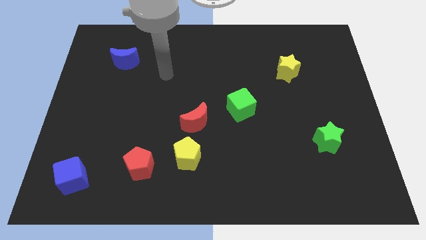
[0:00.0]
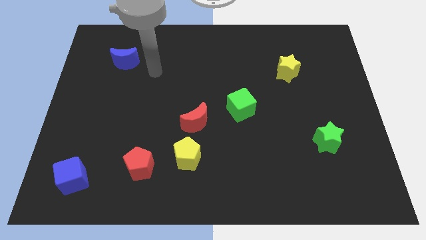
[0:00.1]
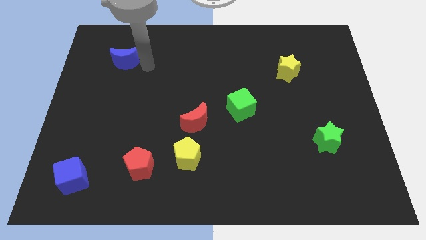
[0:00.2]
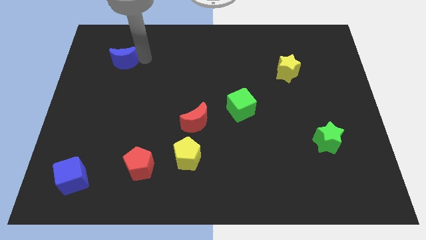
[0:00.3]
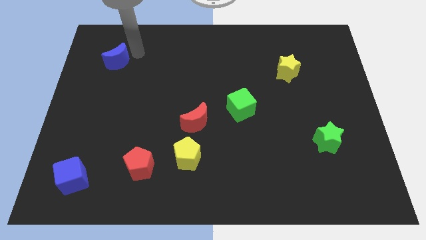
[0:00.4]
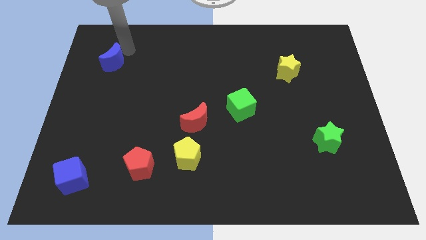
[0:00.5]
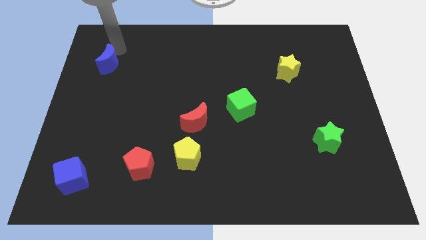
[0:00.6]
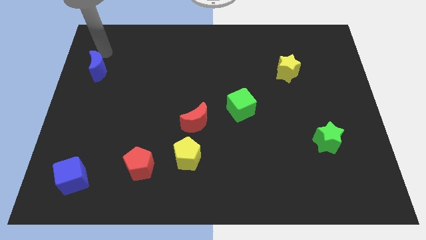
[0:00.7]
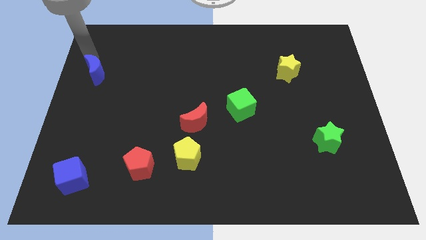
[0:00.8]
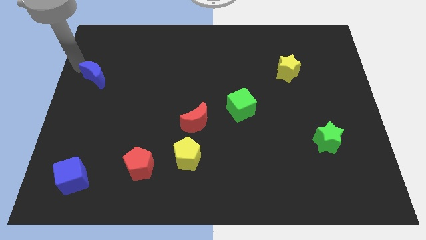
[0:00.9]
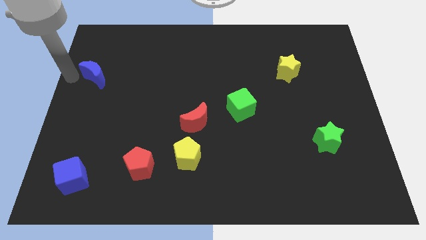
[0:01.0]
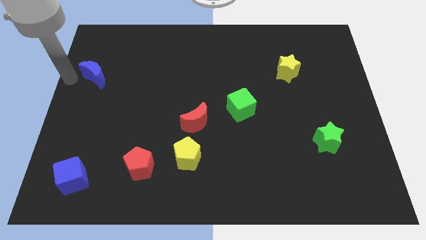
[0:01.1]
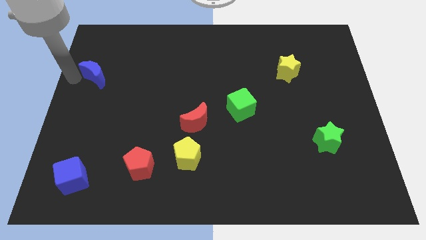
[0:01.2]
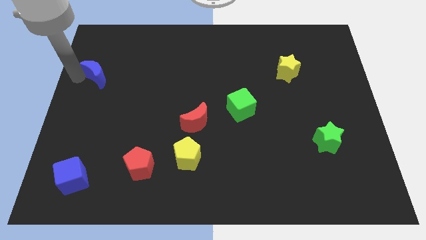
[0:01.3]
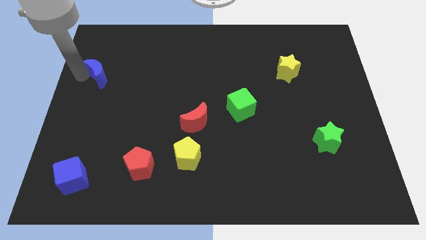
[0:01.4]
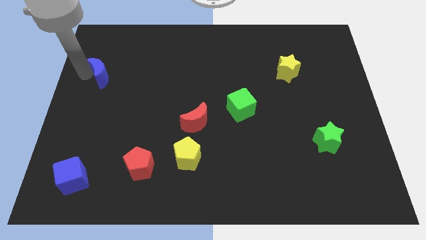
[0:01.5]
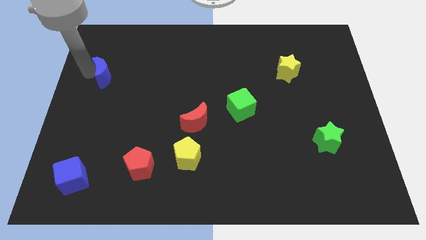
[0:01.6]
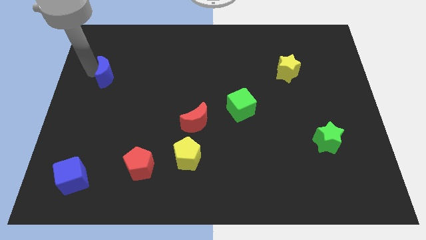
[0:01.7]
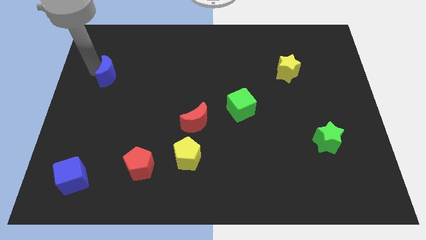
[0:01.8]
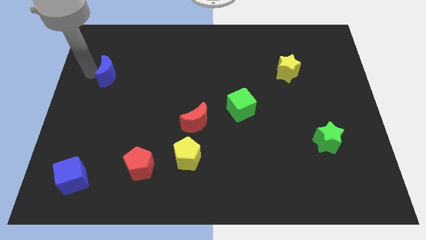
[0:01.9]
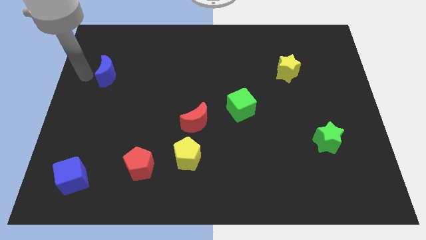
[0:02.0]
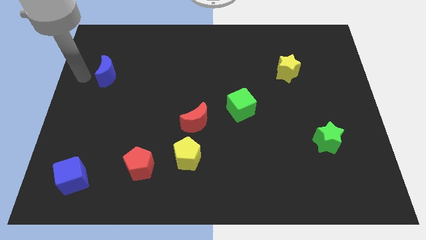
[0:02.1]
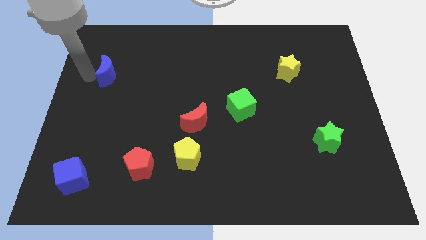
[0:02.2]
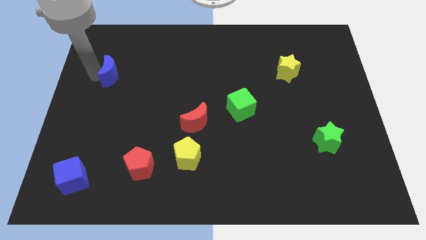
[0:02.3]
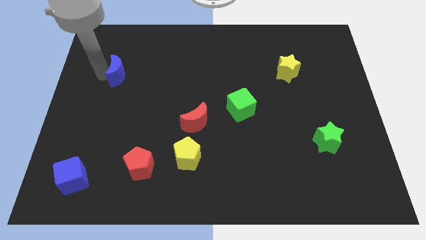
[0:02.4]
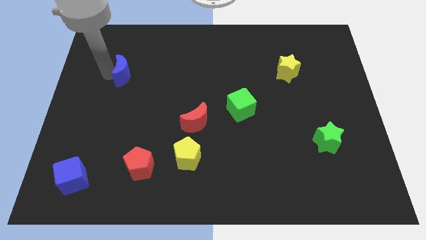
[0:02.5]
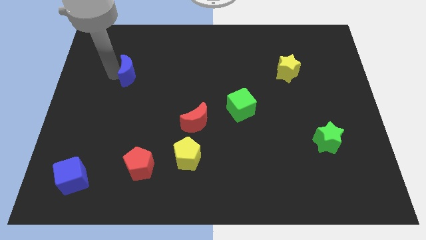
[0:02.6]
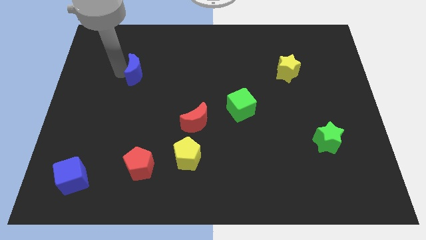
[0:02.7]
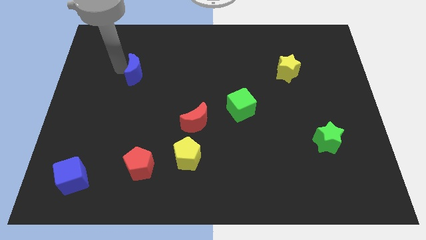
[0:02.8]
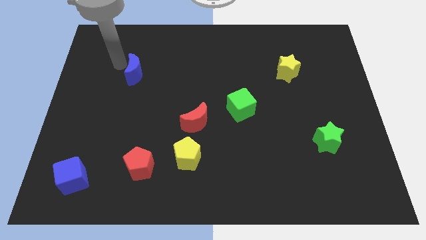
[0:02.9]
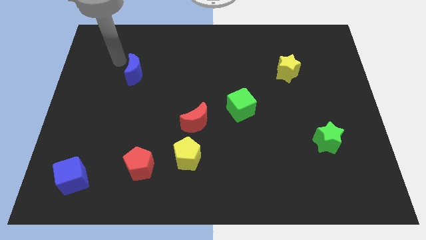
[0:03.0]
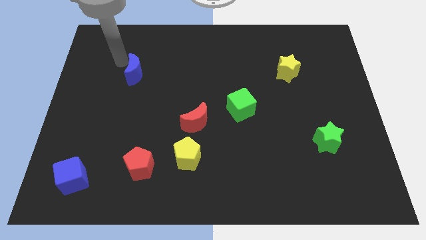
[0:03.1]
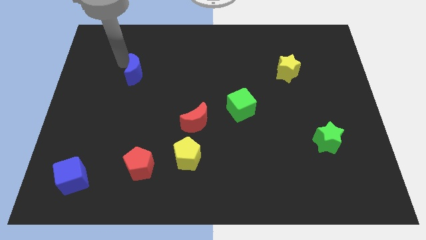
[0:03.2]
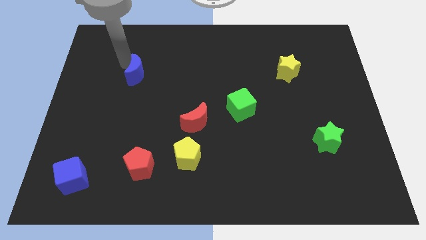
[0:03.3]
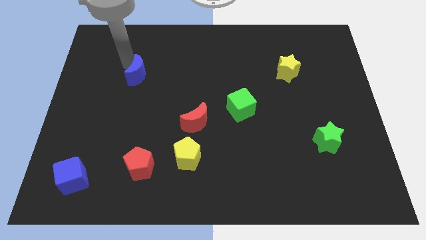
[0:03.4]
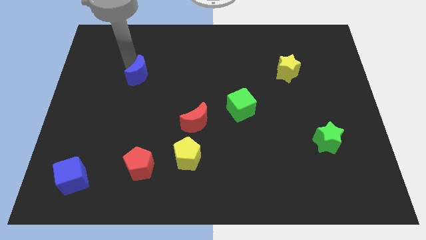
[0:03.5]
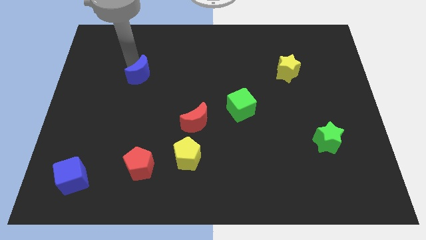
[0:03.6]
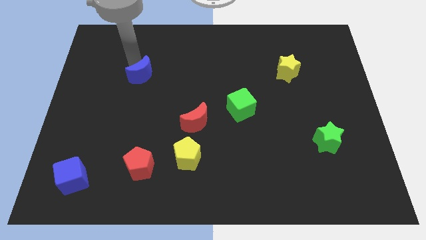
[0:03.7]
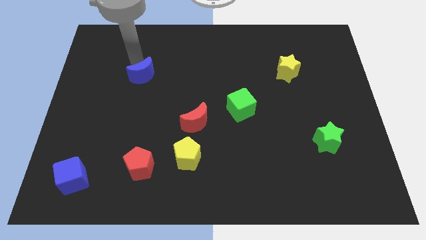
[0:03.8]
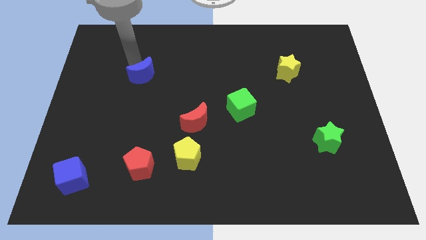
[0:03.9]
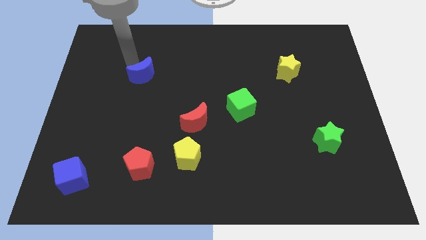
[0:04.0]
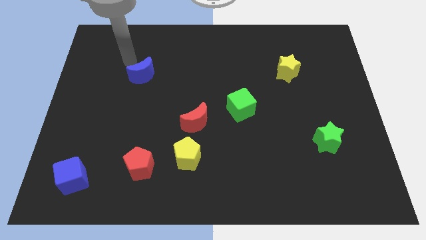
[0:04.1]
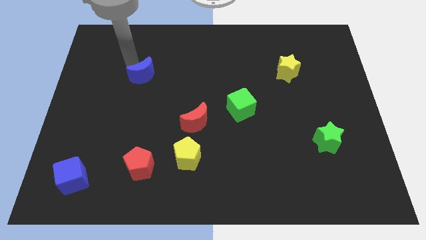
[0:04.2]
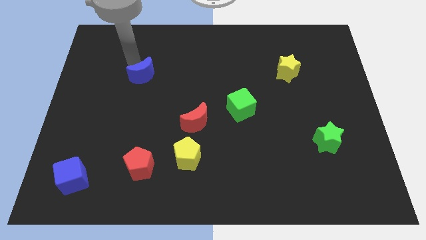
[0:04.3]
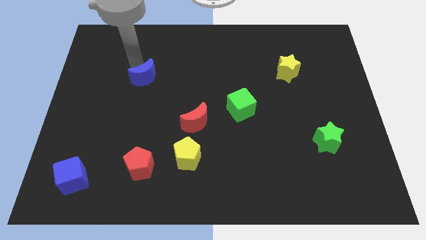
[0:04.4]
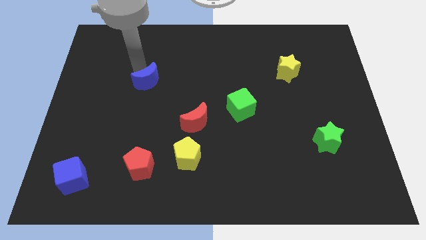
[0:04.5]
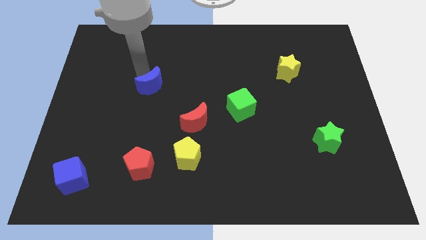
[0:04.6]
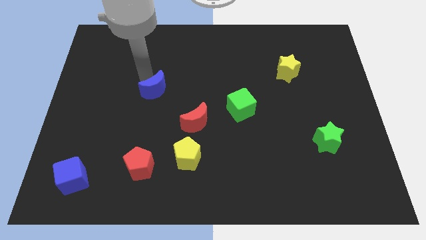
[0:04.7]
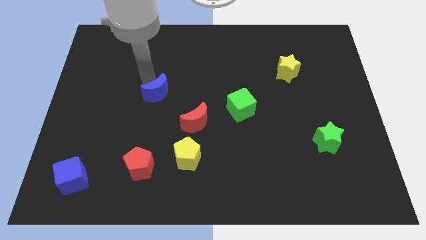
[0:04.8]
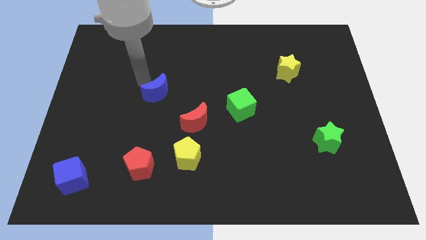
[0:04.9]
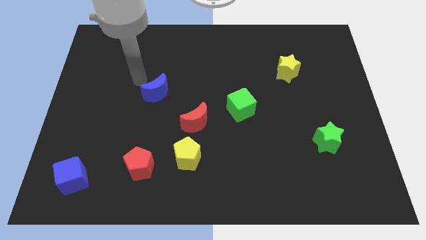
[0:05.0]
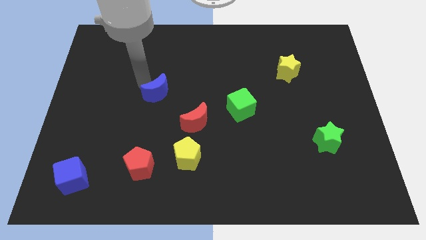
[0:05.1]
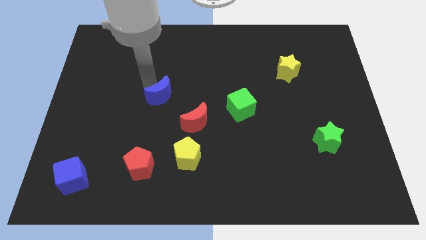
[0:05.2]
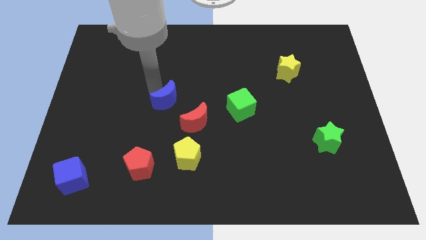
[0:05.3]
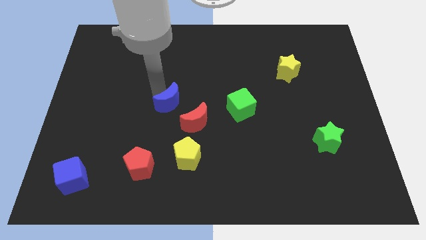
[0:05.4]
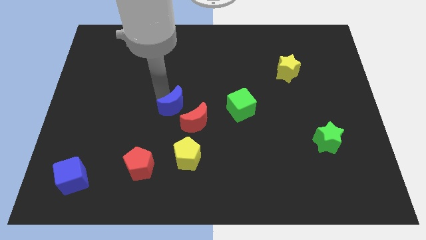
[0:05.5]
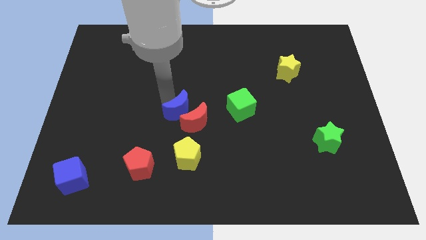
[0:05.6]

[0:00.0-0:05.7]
move the blue moon close to the red moon

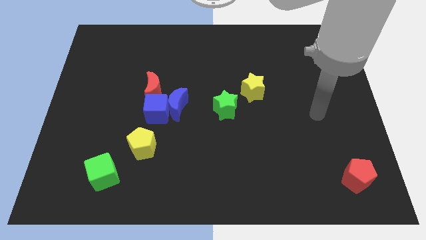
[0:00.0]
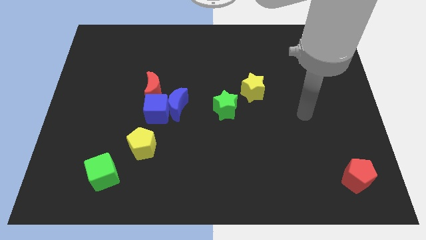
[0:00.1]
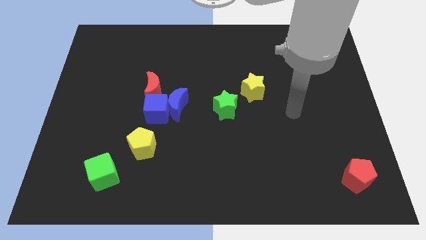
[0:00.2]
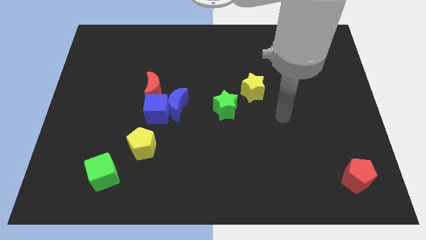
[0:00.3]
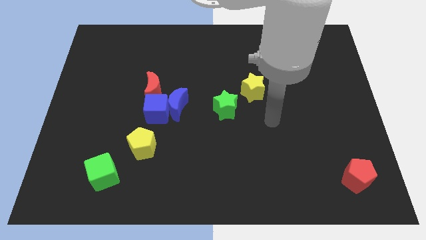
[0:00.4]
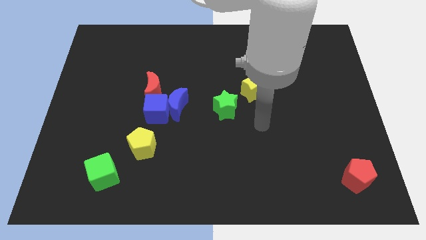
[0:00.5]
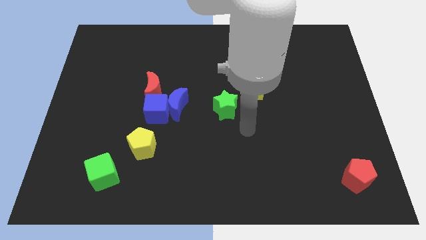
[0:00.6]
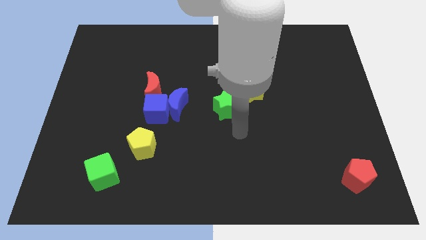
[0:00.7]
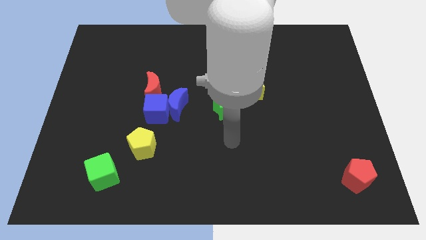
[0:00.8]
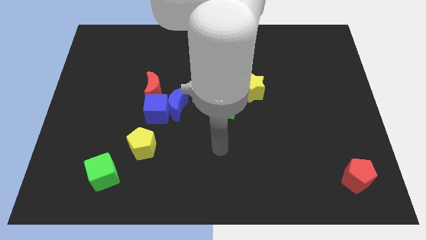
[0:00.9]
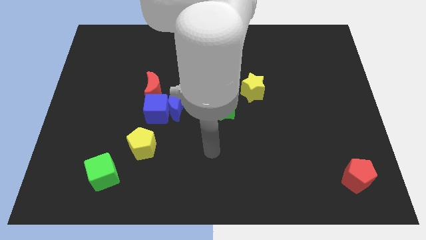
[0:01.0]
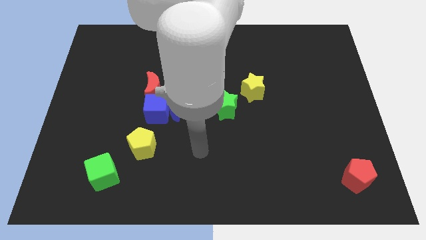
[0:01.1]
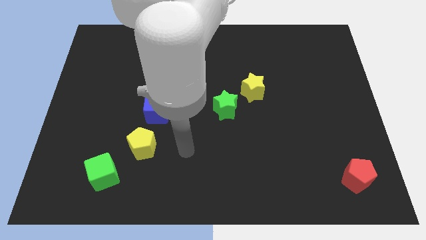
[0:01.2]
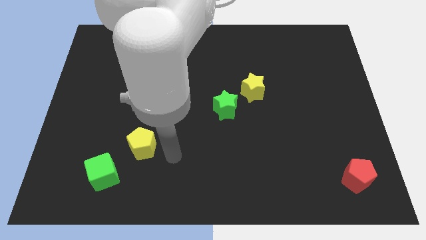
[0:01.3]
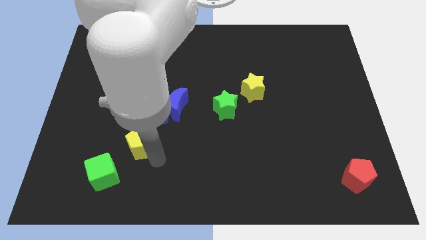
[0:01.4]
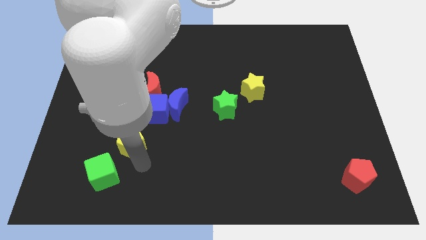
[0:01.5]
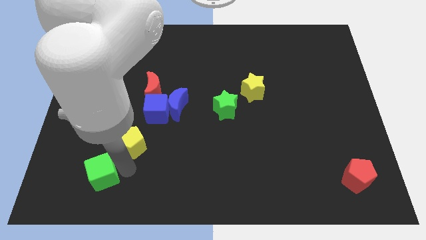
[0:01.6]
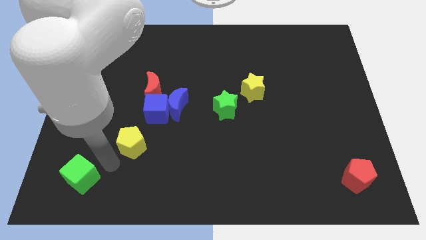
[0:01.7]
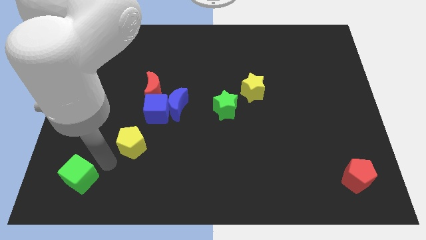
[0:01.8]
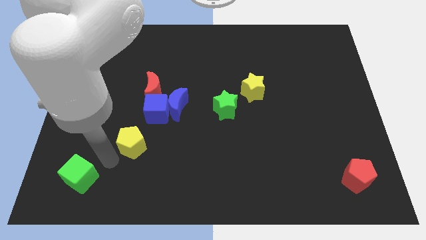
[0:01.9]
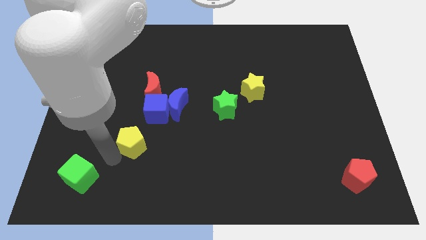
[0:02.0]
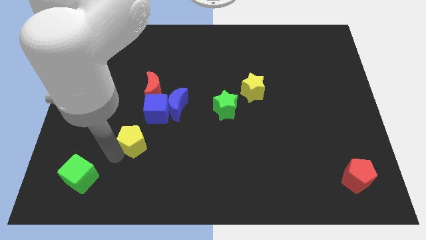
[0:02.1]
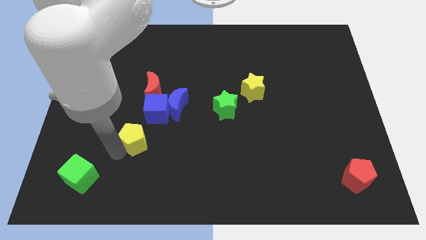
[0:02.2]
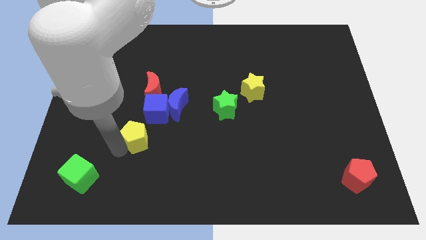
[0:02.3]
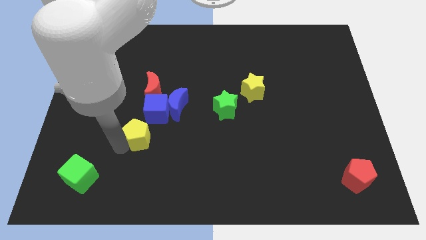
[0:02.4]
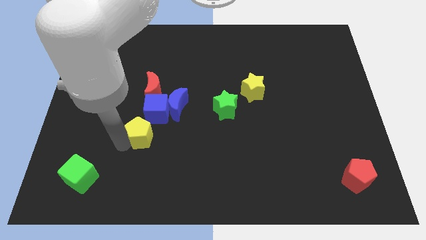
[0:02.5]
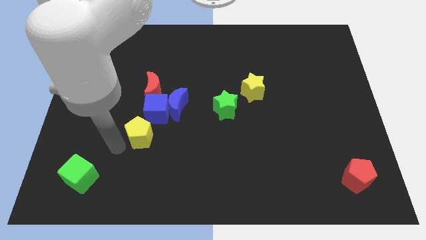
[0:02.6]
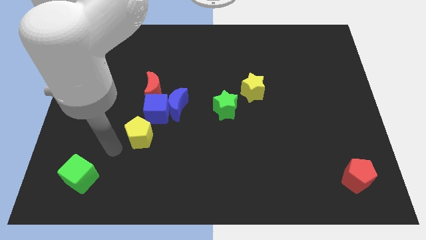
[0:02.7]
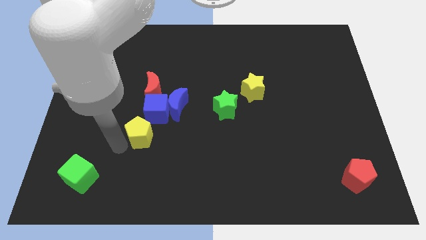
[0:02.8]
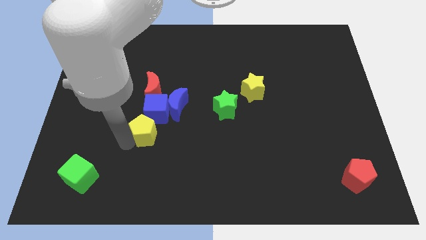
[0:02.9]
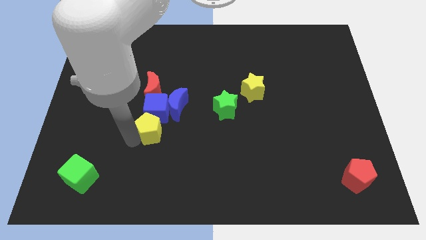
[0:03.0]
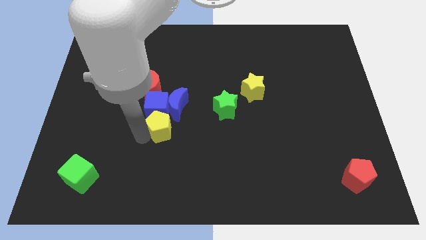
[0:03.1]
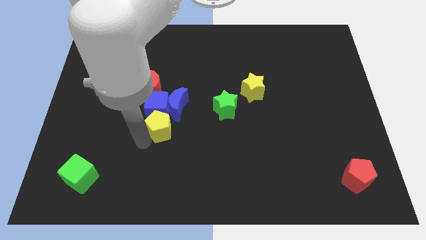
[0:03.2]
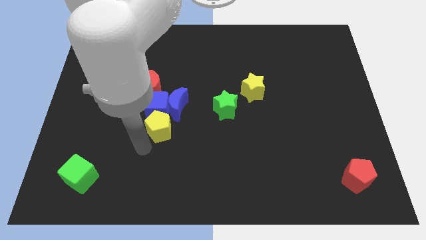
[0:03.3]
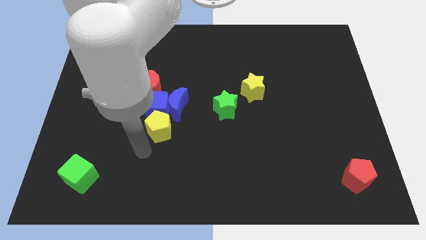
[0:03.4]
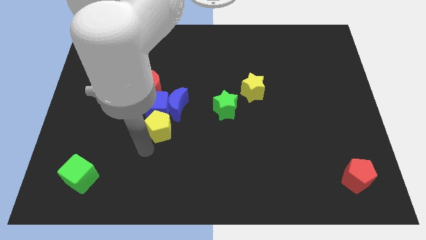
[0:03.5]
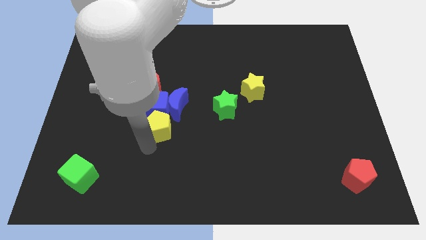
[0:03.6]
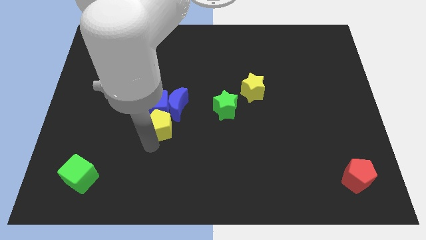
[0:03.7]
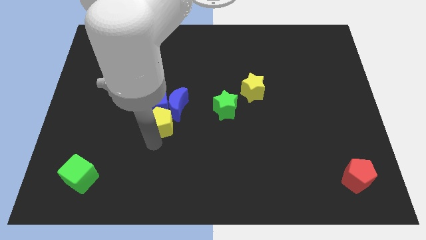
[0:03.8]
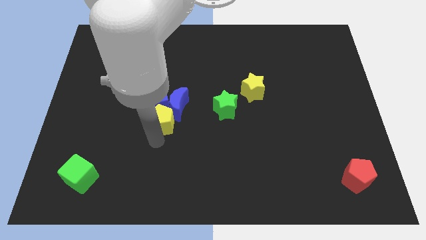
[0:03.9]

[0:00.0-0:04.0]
move the yellow pentagon to the blue moon
